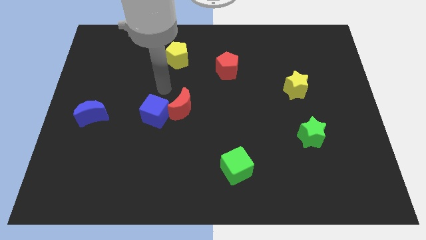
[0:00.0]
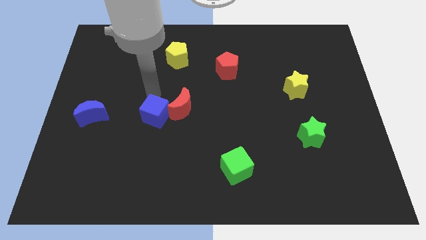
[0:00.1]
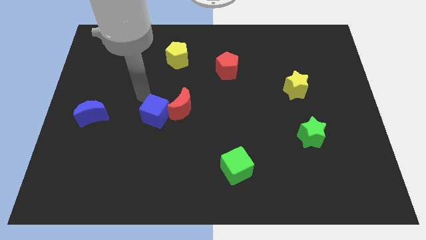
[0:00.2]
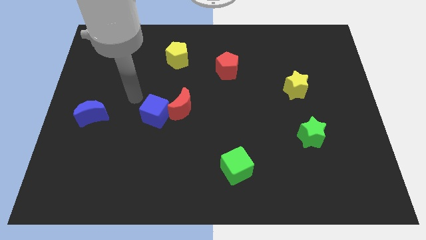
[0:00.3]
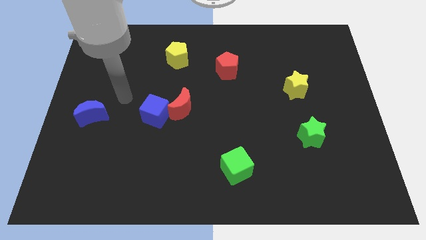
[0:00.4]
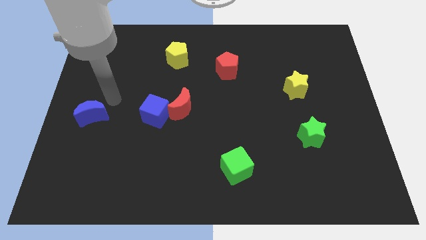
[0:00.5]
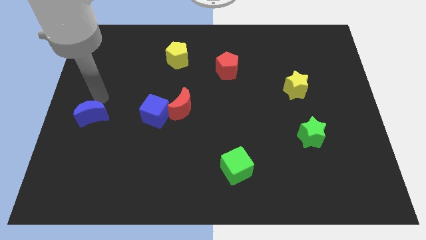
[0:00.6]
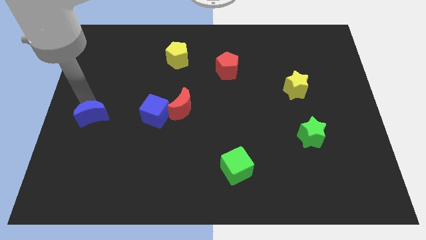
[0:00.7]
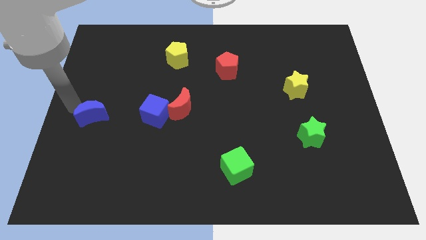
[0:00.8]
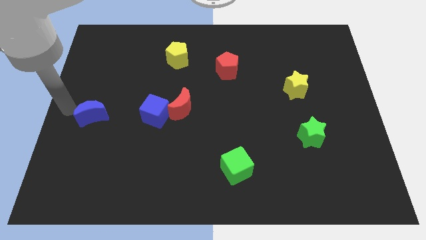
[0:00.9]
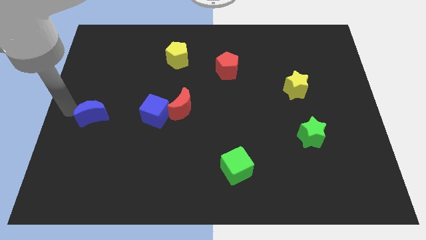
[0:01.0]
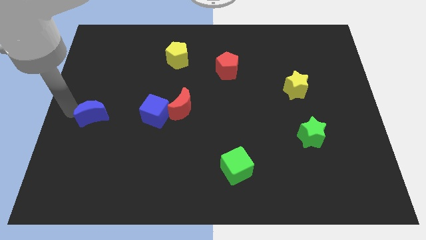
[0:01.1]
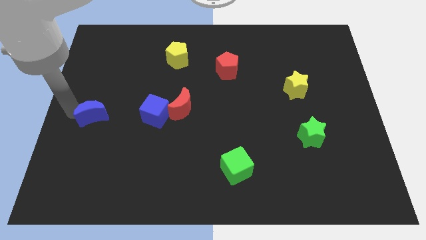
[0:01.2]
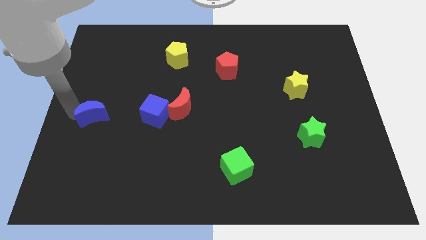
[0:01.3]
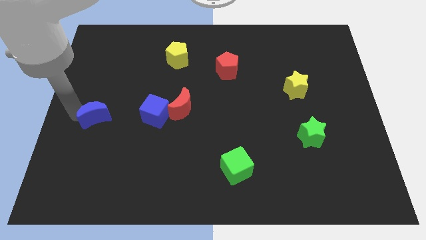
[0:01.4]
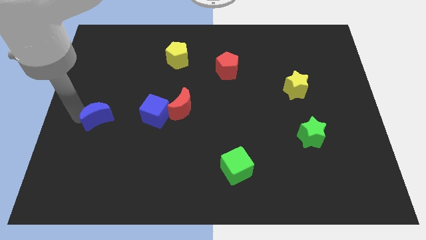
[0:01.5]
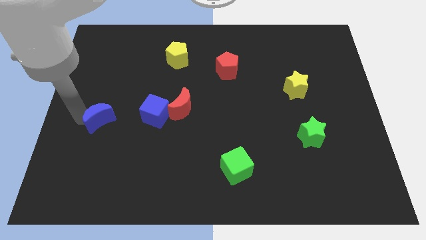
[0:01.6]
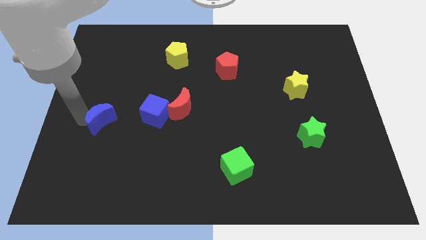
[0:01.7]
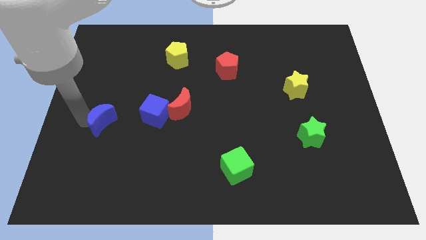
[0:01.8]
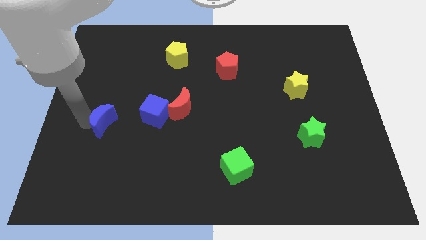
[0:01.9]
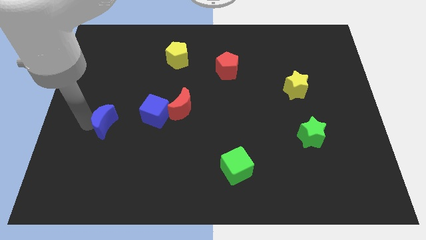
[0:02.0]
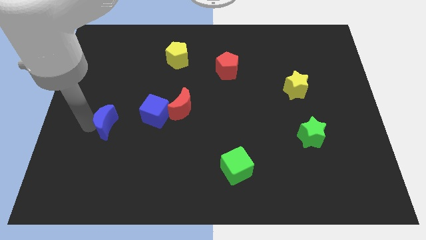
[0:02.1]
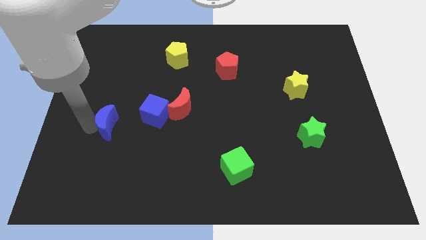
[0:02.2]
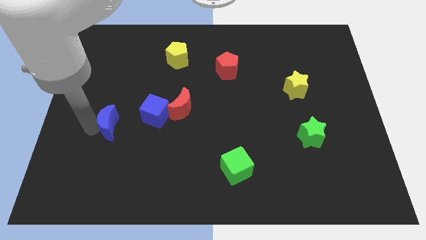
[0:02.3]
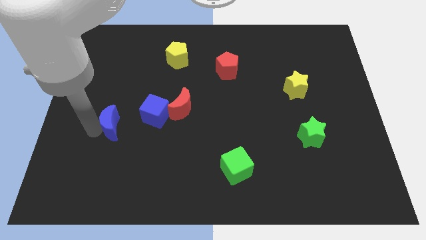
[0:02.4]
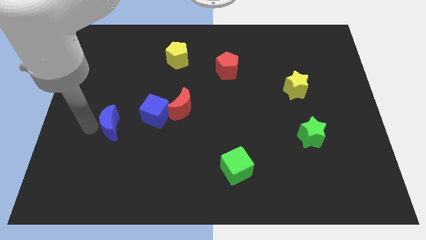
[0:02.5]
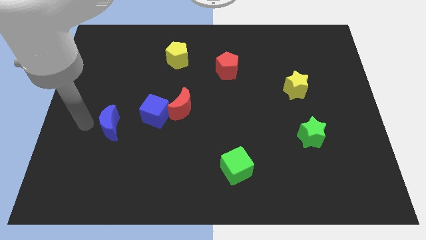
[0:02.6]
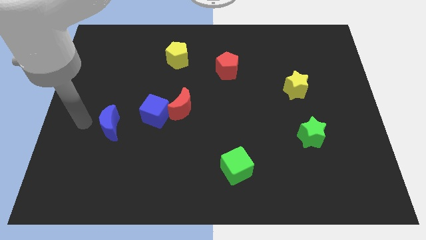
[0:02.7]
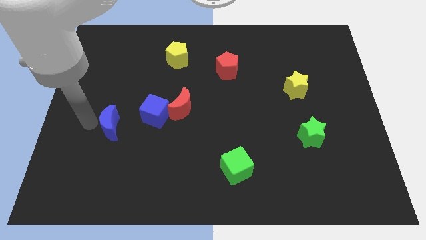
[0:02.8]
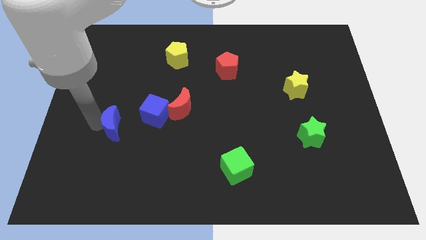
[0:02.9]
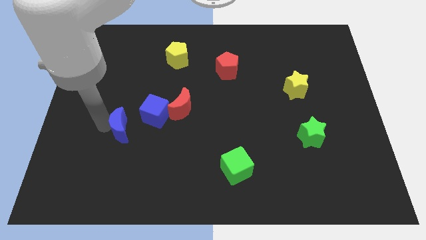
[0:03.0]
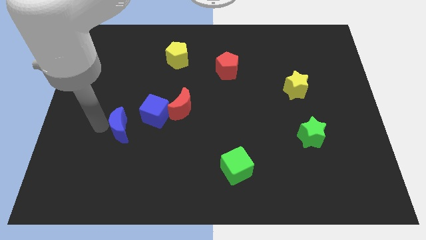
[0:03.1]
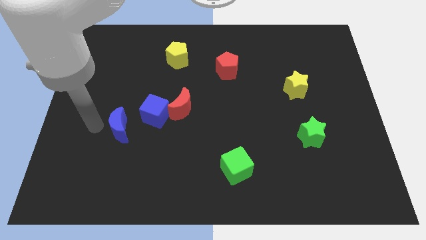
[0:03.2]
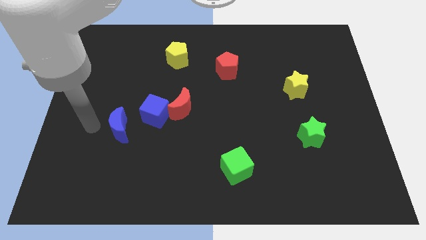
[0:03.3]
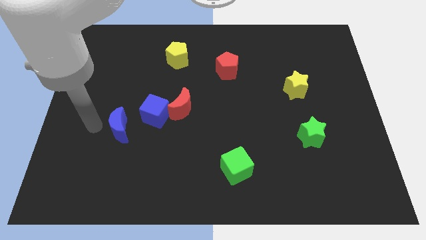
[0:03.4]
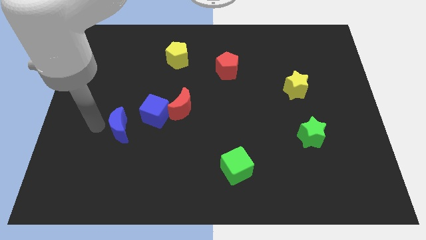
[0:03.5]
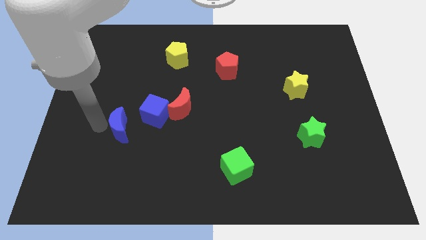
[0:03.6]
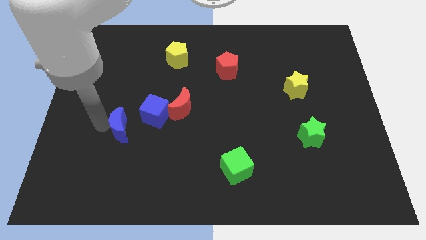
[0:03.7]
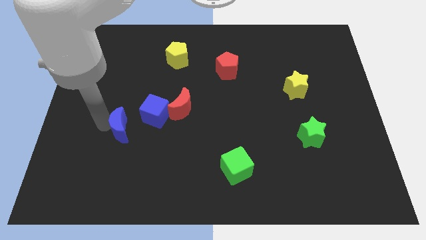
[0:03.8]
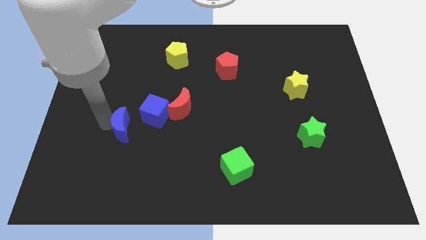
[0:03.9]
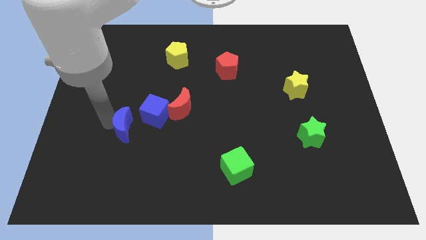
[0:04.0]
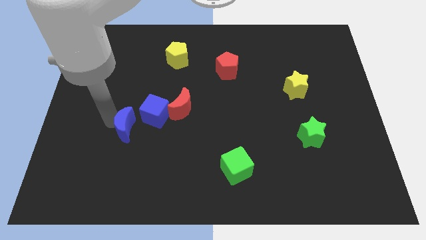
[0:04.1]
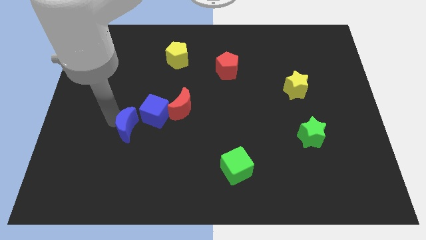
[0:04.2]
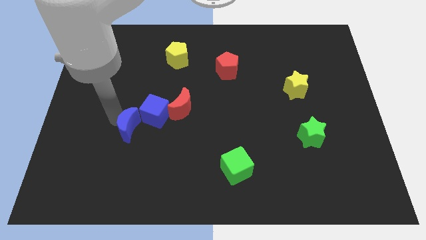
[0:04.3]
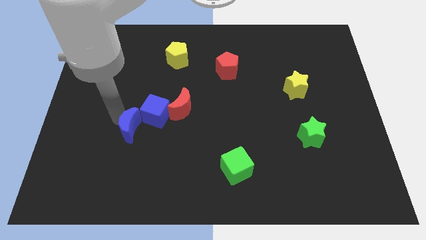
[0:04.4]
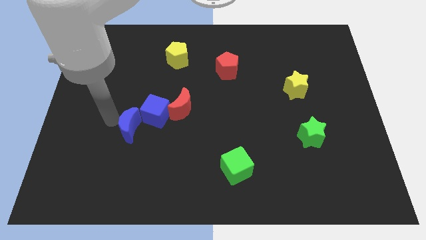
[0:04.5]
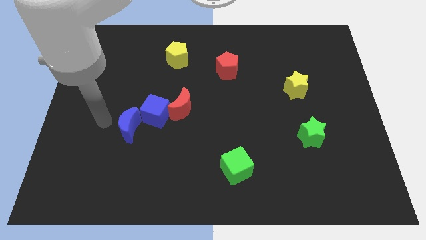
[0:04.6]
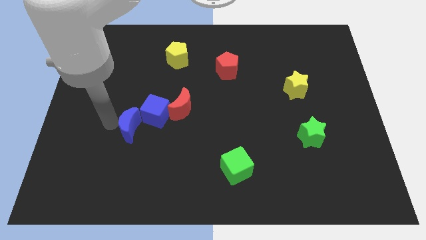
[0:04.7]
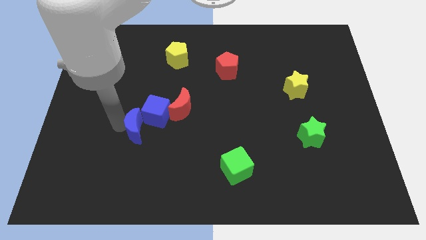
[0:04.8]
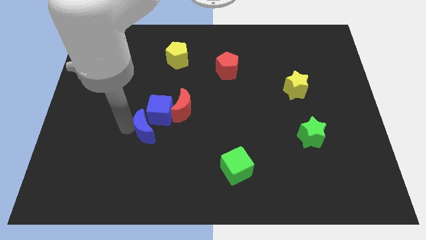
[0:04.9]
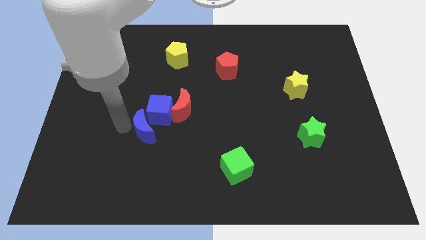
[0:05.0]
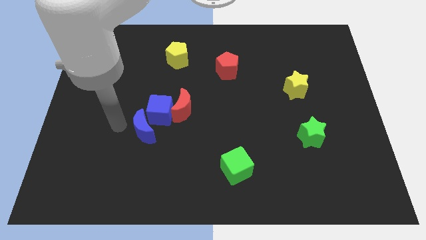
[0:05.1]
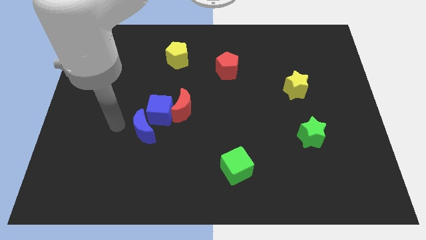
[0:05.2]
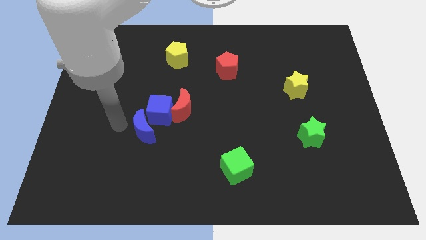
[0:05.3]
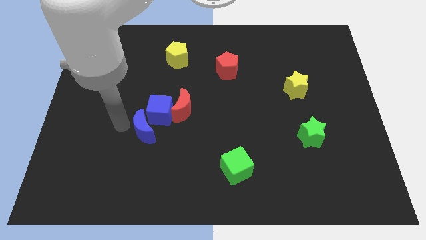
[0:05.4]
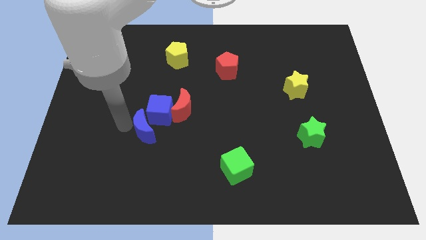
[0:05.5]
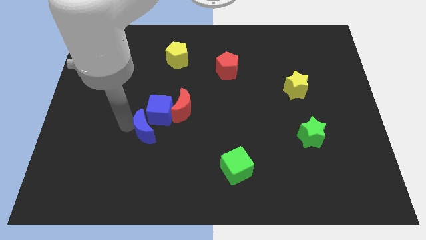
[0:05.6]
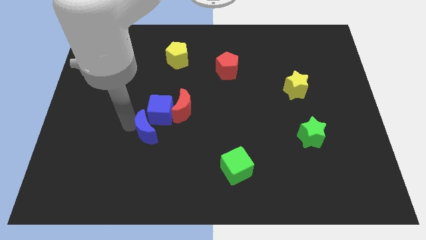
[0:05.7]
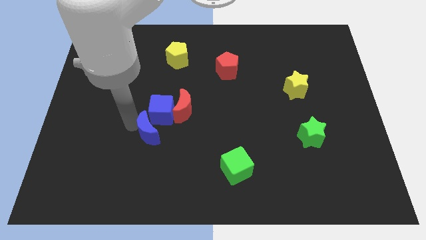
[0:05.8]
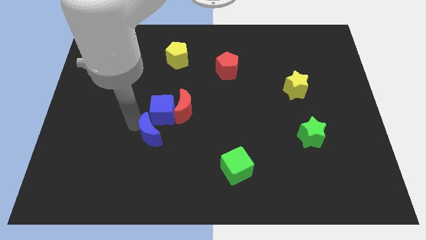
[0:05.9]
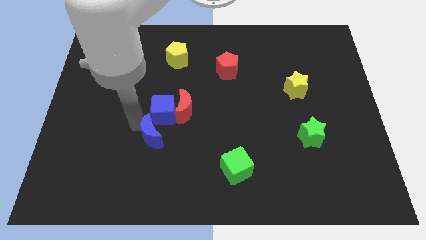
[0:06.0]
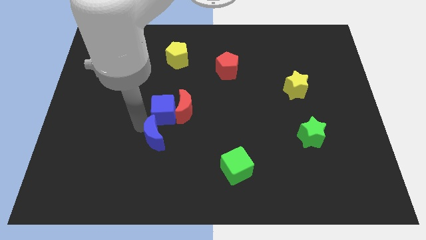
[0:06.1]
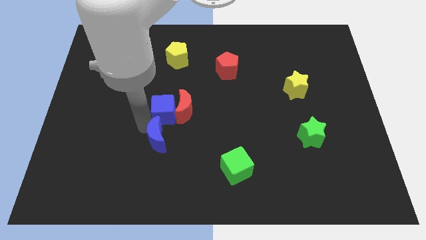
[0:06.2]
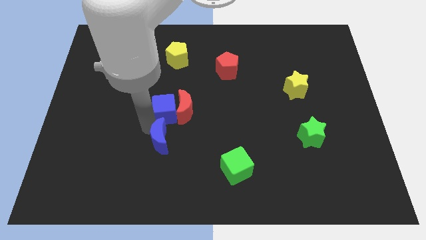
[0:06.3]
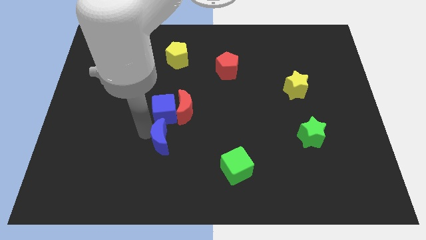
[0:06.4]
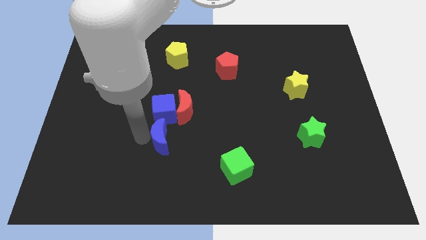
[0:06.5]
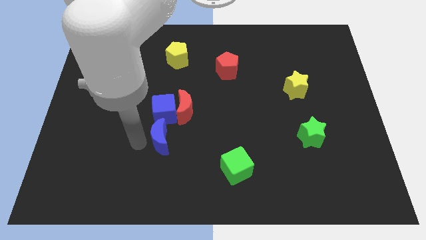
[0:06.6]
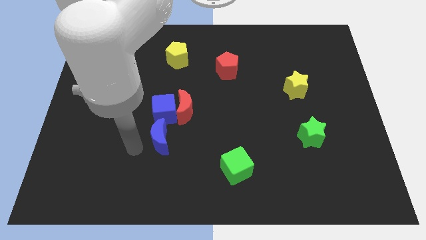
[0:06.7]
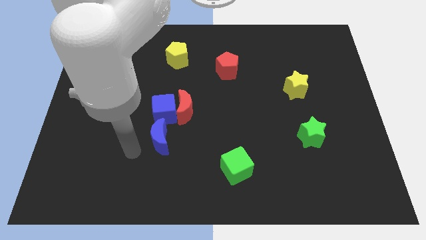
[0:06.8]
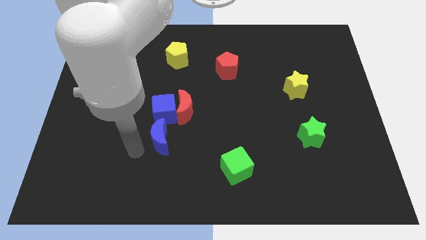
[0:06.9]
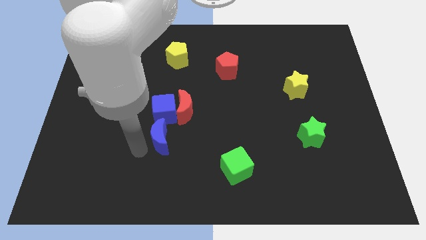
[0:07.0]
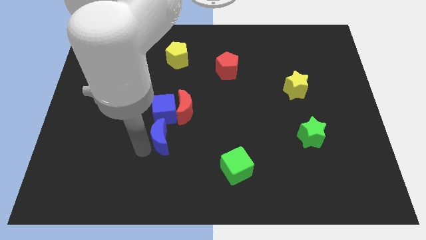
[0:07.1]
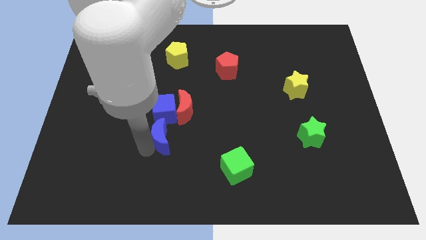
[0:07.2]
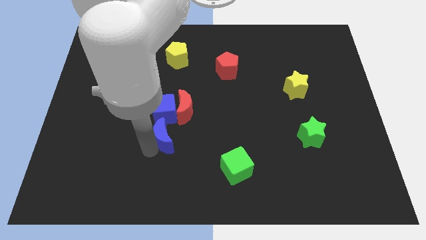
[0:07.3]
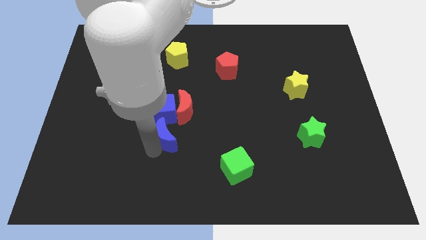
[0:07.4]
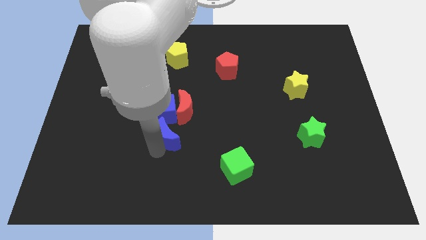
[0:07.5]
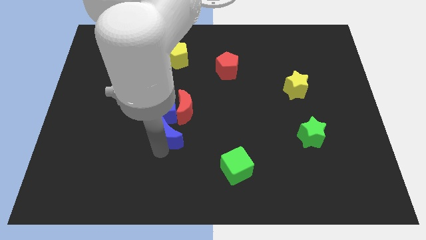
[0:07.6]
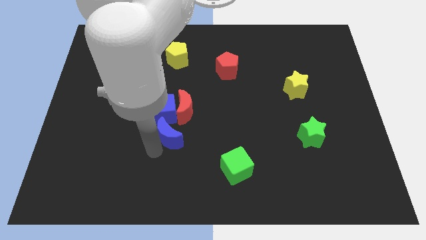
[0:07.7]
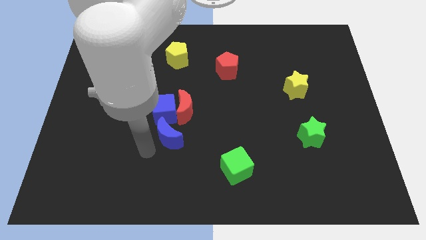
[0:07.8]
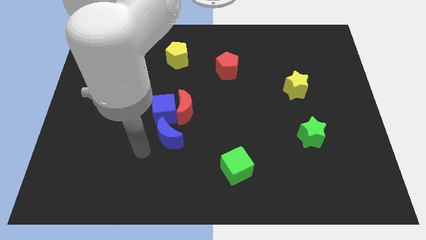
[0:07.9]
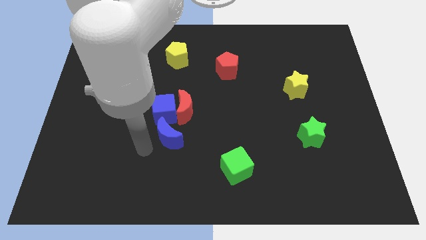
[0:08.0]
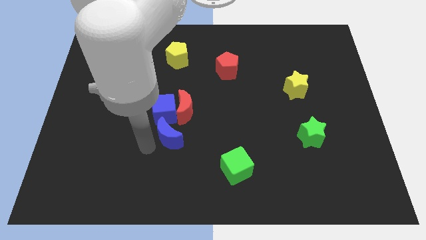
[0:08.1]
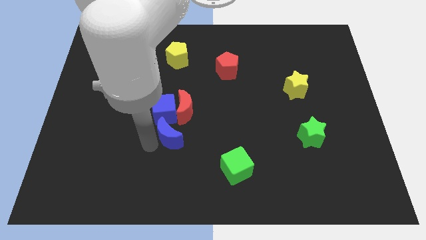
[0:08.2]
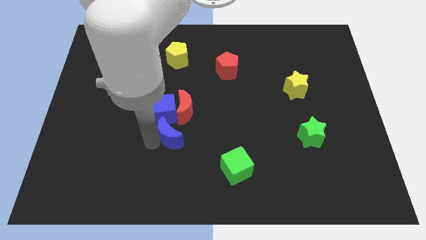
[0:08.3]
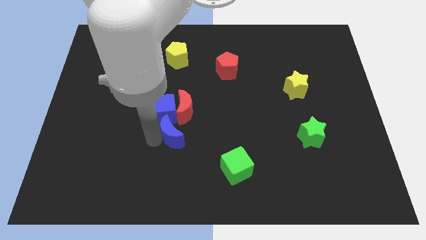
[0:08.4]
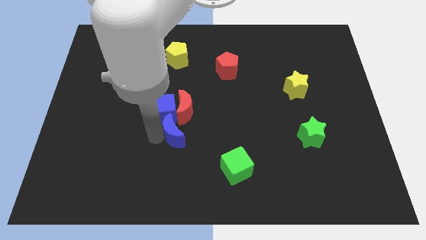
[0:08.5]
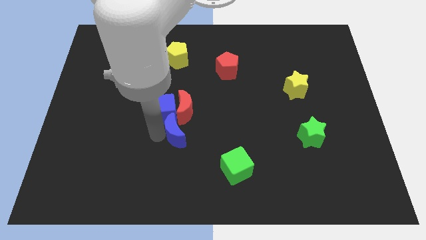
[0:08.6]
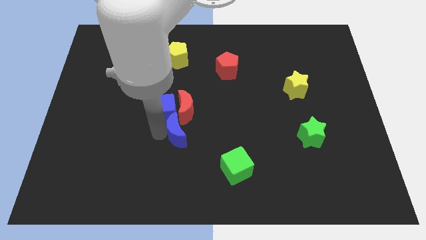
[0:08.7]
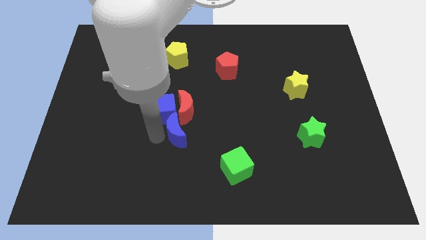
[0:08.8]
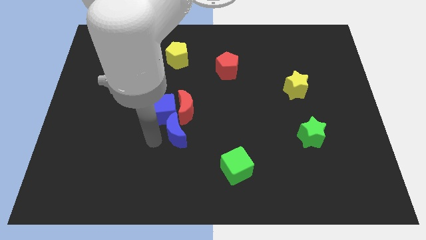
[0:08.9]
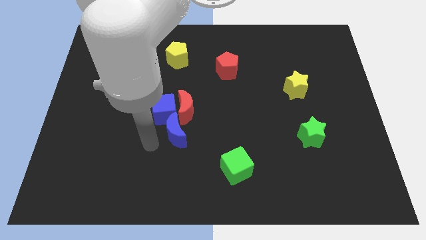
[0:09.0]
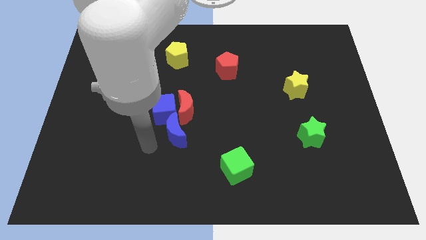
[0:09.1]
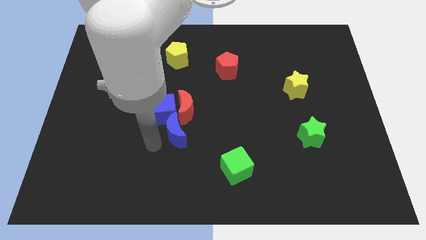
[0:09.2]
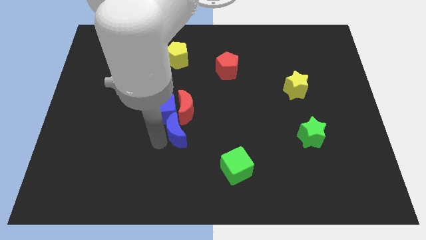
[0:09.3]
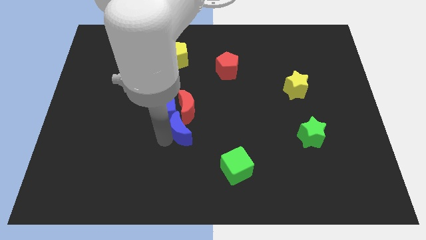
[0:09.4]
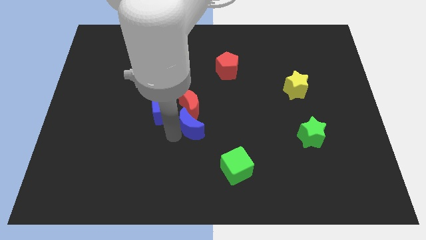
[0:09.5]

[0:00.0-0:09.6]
slide the blue moon right
